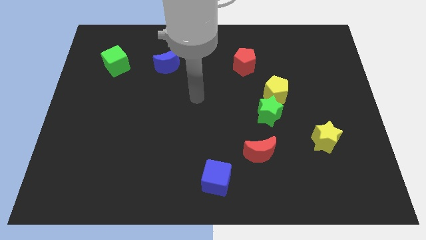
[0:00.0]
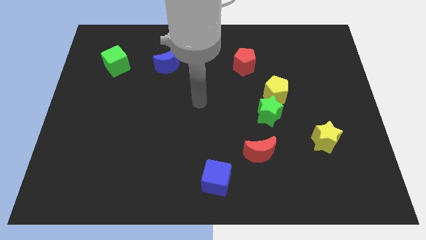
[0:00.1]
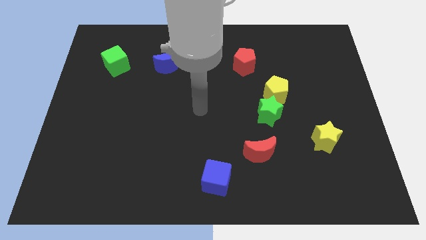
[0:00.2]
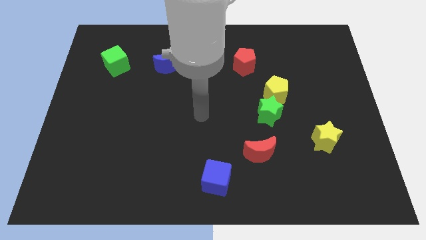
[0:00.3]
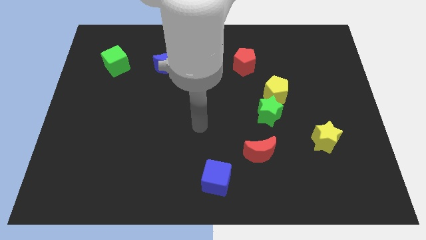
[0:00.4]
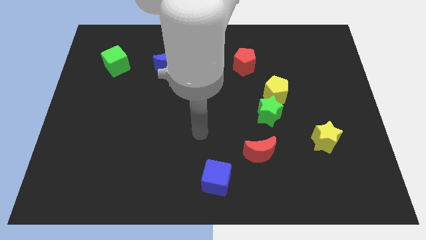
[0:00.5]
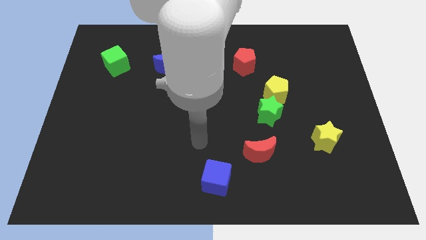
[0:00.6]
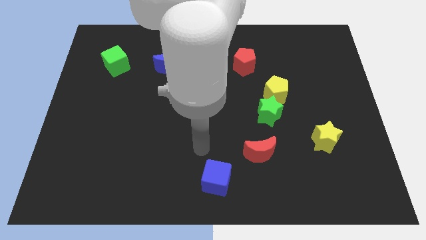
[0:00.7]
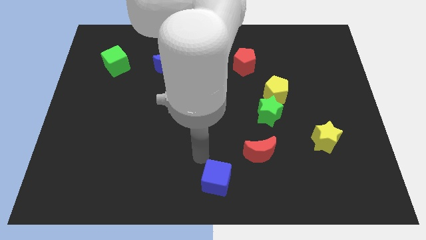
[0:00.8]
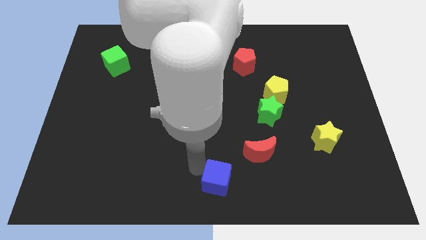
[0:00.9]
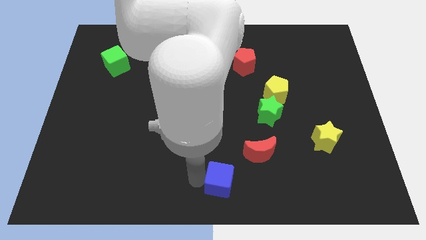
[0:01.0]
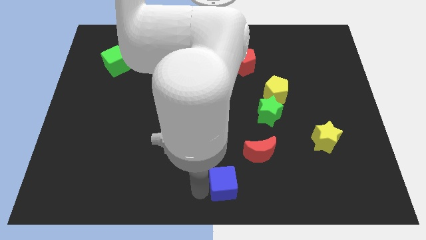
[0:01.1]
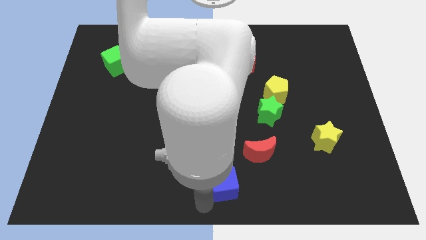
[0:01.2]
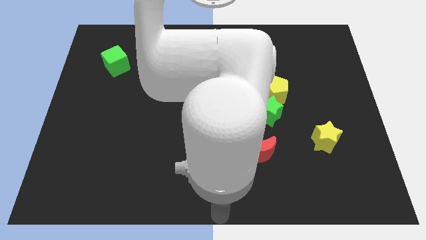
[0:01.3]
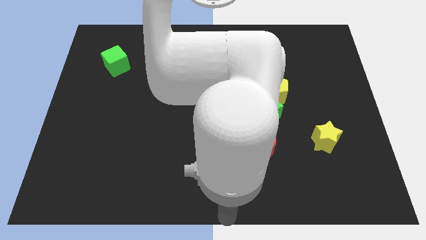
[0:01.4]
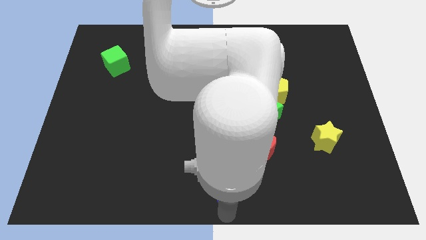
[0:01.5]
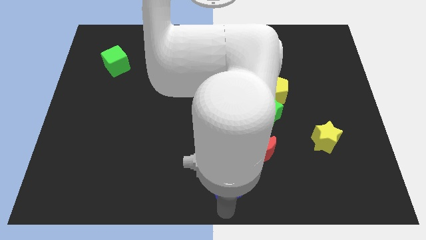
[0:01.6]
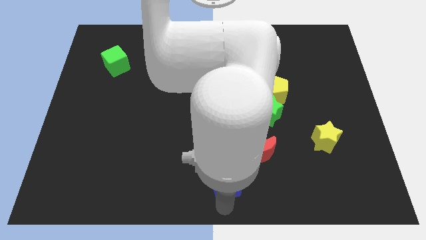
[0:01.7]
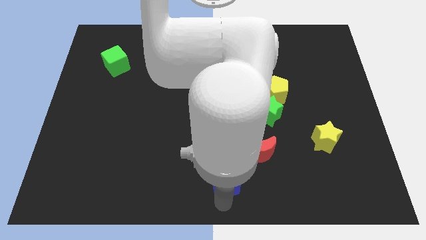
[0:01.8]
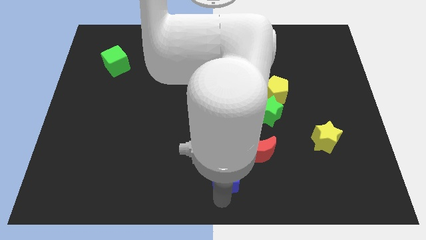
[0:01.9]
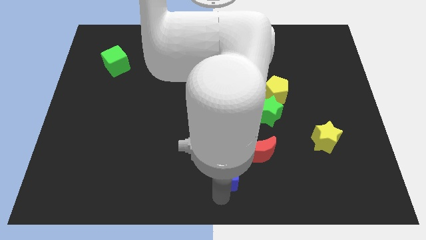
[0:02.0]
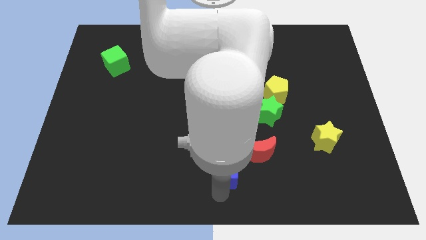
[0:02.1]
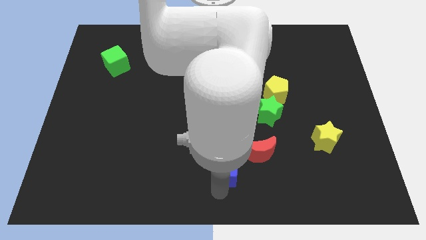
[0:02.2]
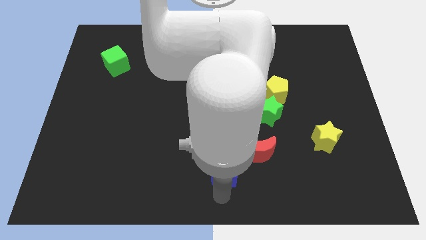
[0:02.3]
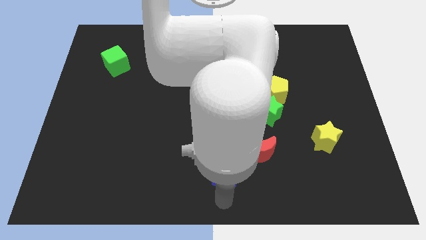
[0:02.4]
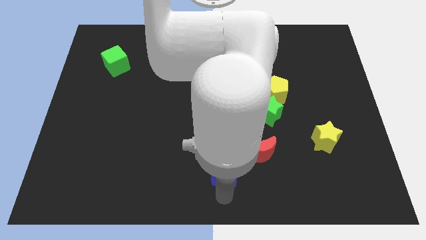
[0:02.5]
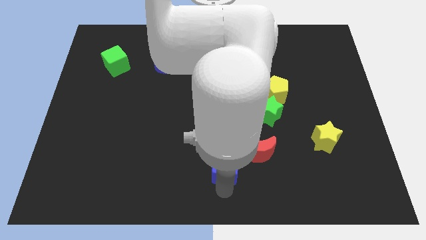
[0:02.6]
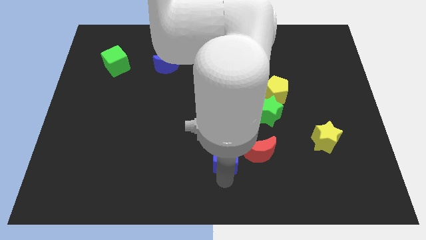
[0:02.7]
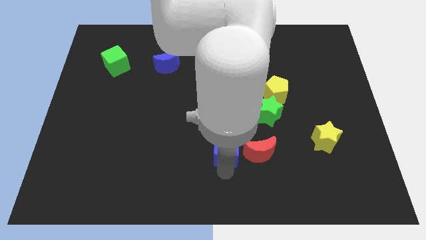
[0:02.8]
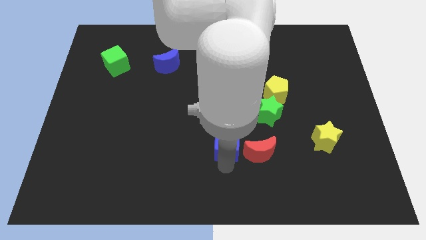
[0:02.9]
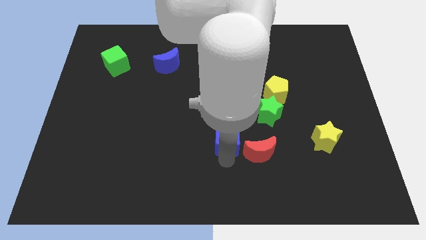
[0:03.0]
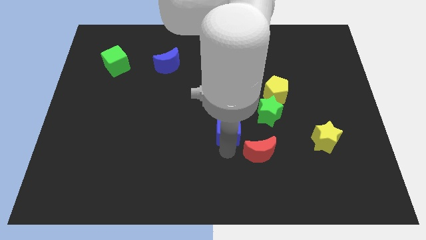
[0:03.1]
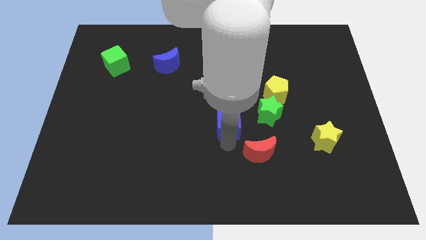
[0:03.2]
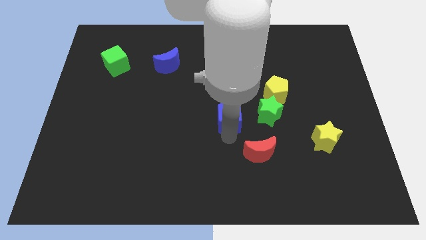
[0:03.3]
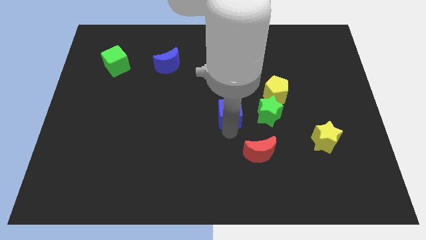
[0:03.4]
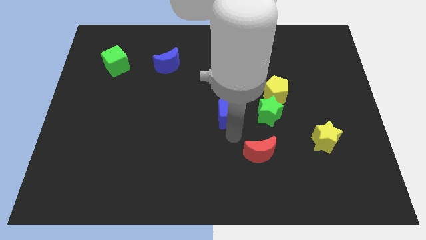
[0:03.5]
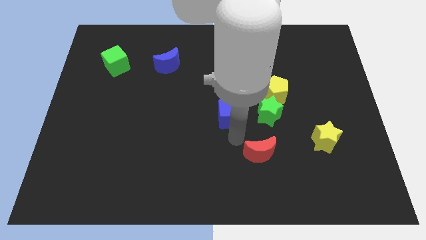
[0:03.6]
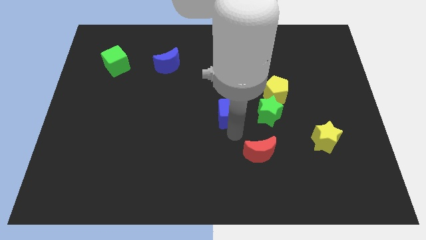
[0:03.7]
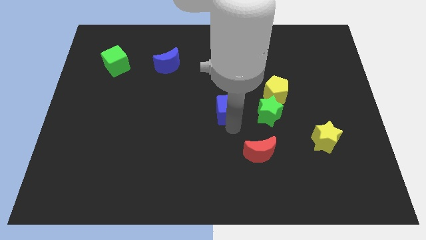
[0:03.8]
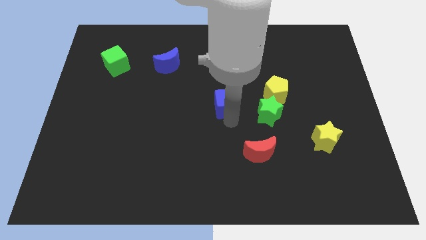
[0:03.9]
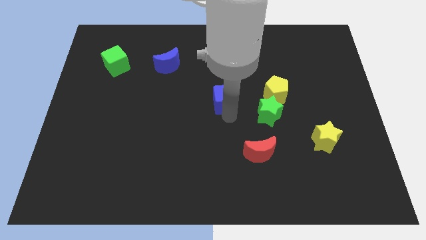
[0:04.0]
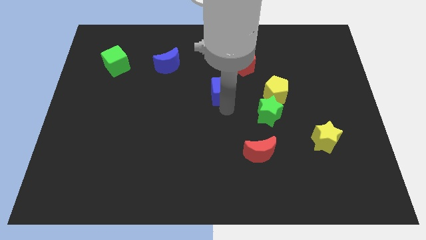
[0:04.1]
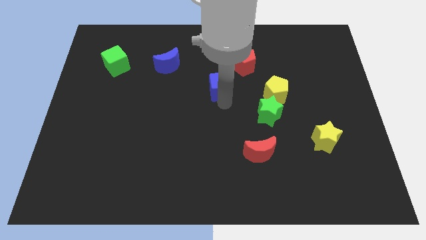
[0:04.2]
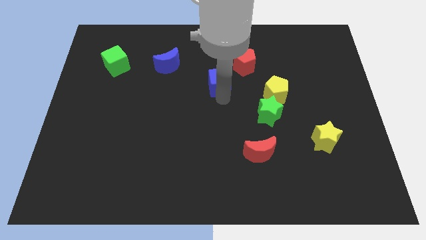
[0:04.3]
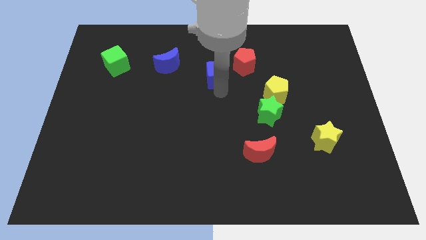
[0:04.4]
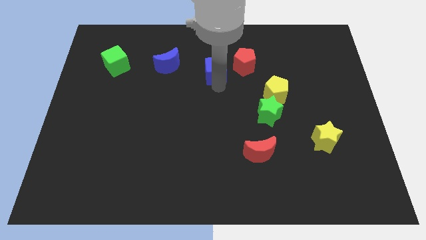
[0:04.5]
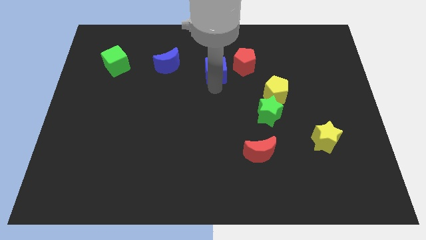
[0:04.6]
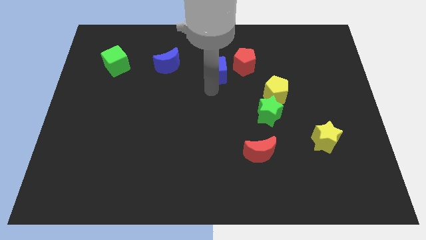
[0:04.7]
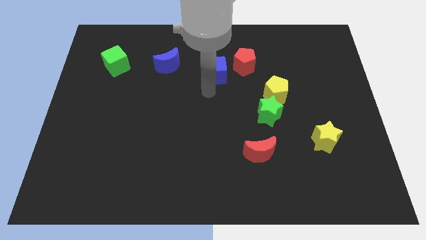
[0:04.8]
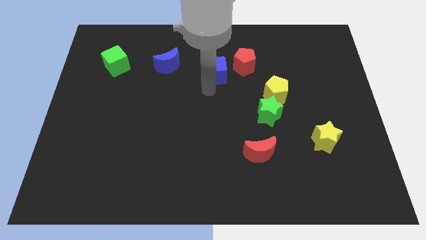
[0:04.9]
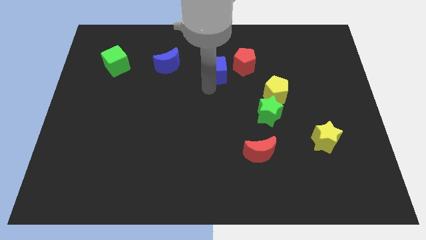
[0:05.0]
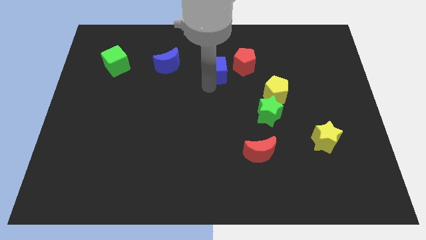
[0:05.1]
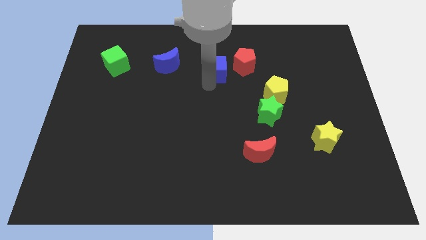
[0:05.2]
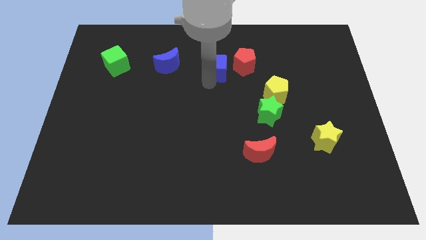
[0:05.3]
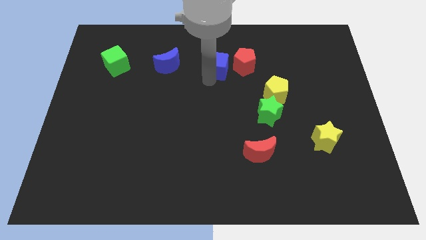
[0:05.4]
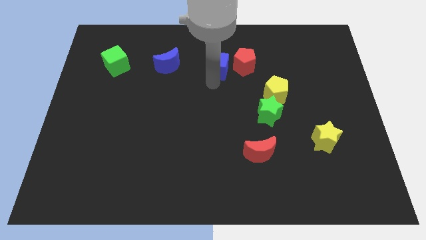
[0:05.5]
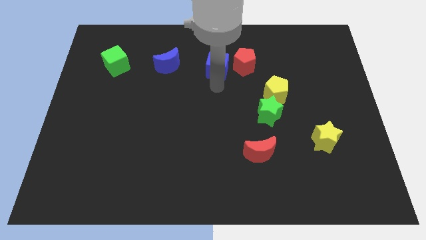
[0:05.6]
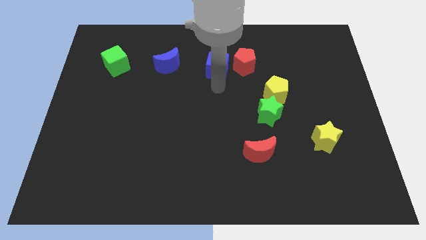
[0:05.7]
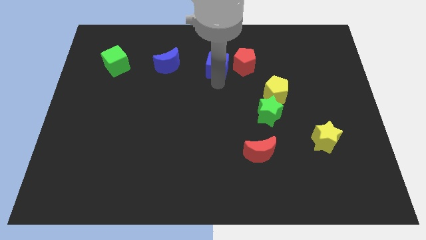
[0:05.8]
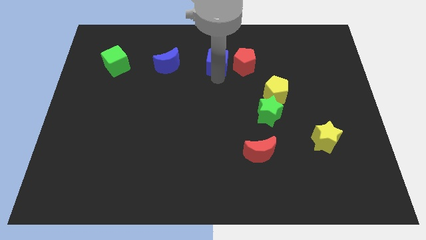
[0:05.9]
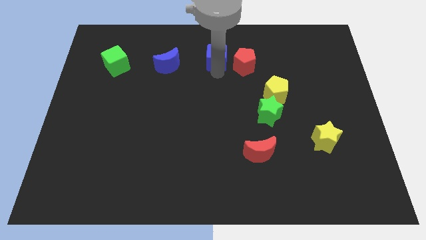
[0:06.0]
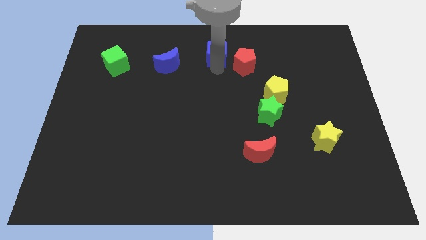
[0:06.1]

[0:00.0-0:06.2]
put the blue cube to the top
